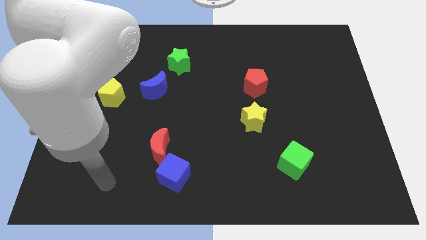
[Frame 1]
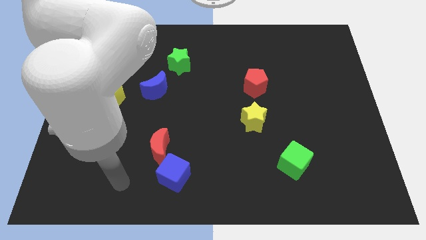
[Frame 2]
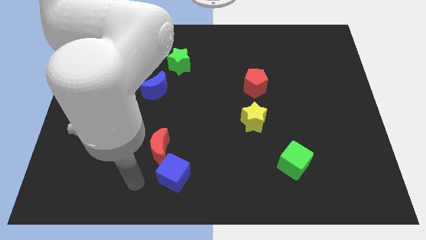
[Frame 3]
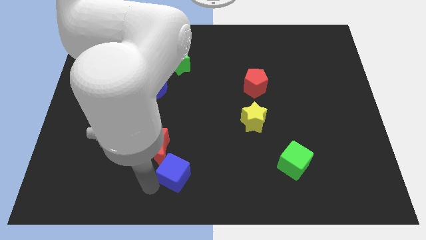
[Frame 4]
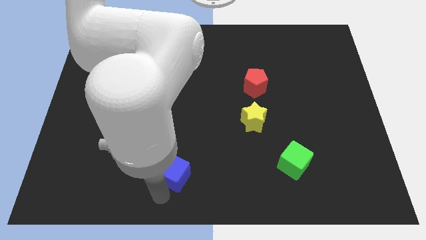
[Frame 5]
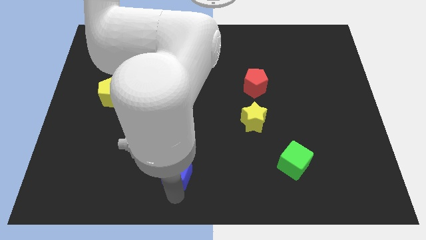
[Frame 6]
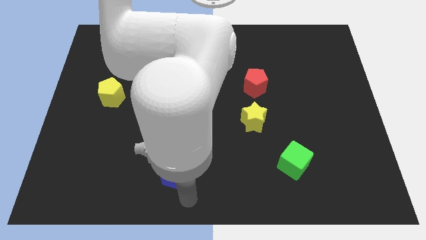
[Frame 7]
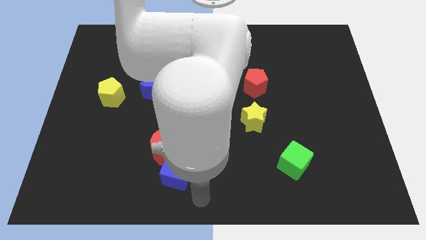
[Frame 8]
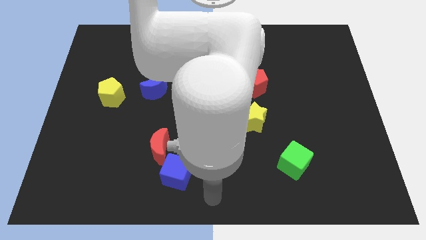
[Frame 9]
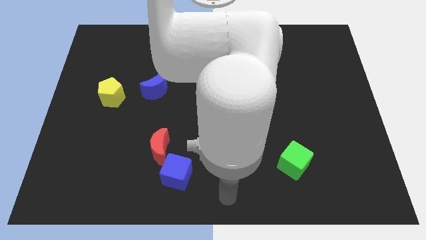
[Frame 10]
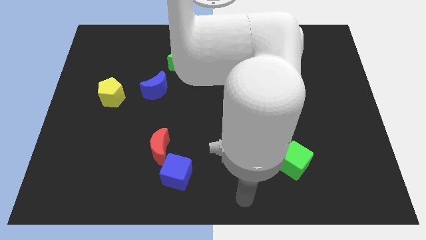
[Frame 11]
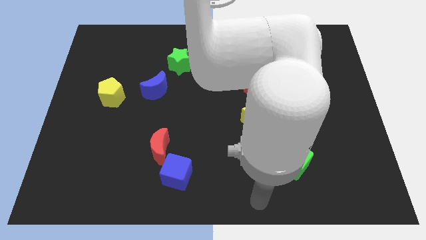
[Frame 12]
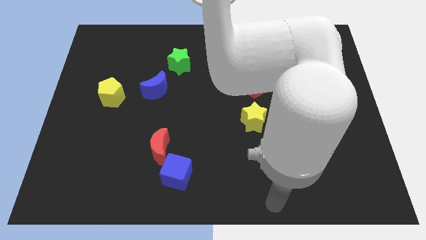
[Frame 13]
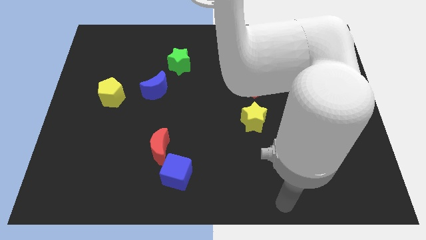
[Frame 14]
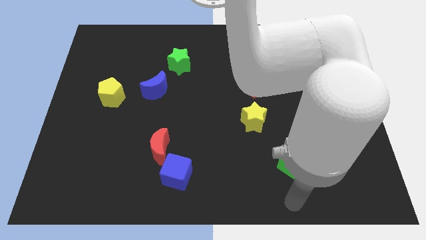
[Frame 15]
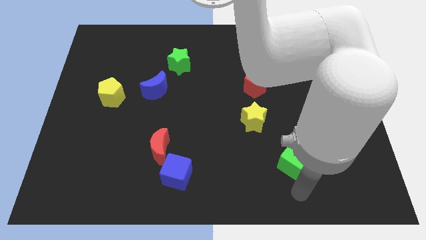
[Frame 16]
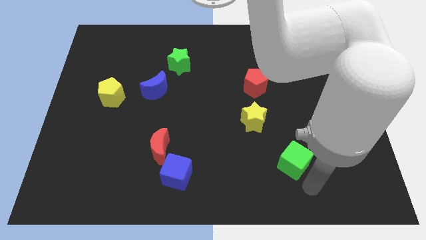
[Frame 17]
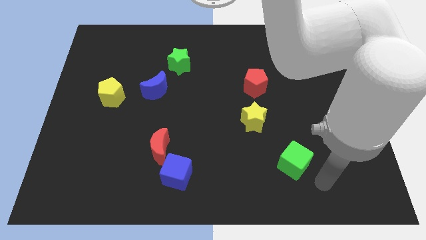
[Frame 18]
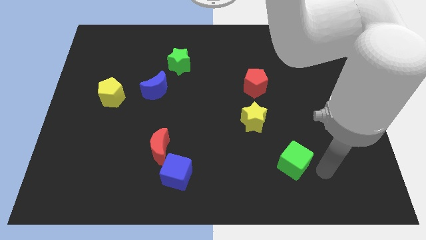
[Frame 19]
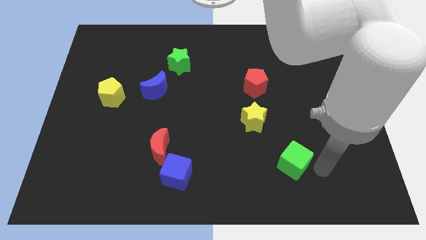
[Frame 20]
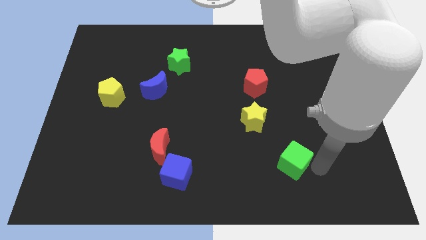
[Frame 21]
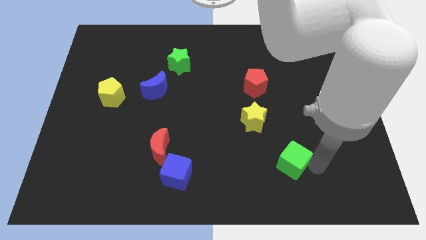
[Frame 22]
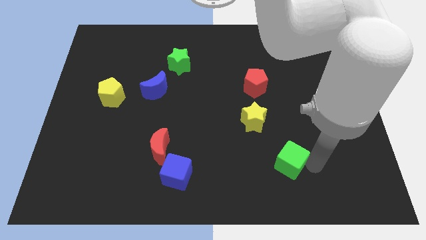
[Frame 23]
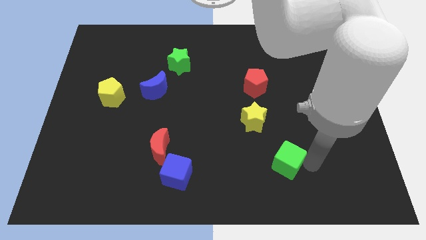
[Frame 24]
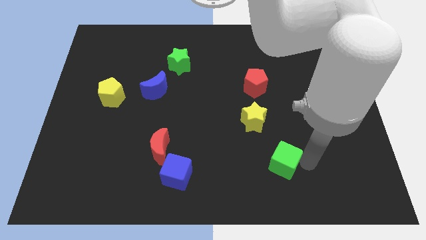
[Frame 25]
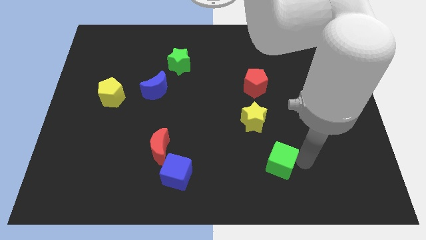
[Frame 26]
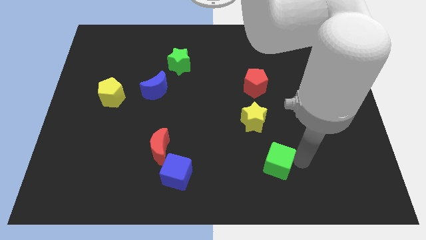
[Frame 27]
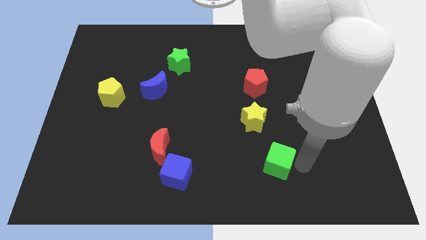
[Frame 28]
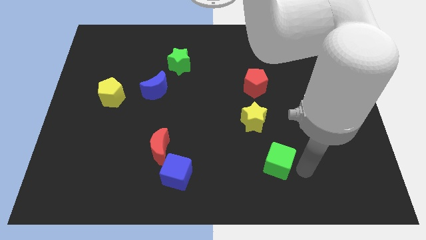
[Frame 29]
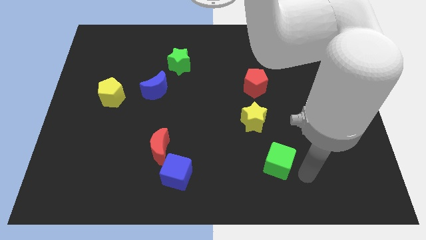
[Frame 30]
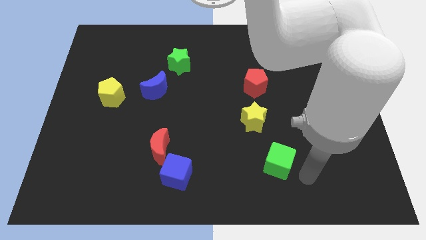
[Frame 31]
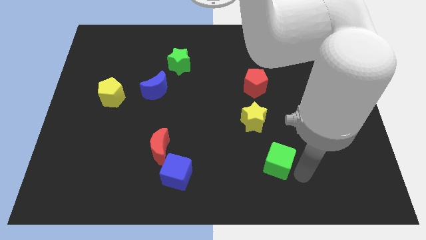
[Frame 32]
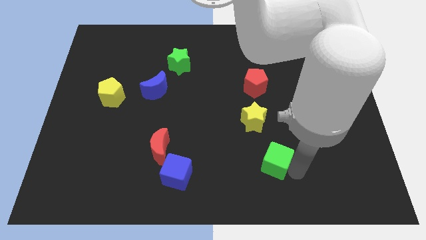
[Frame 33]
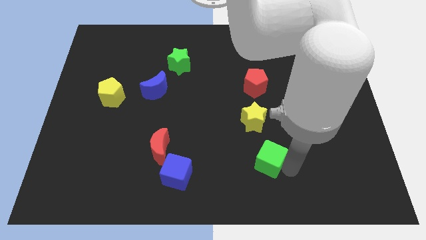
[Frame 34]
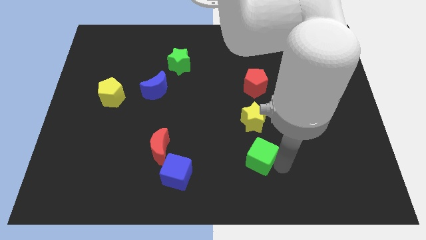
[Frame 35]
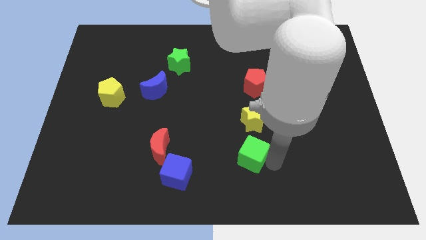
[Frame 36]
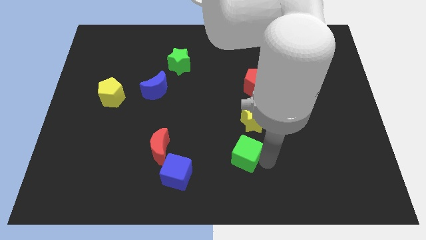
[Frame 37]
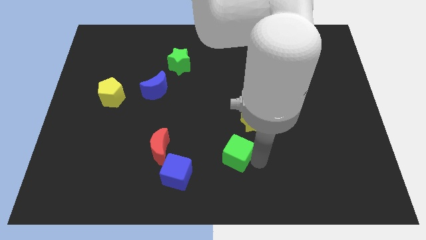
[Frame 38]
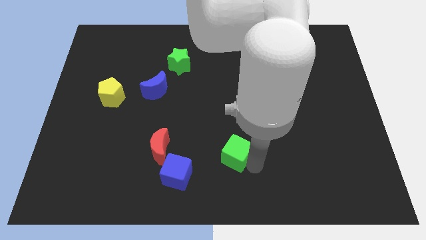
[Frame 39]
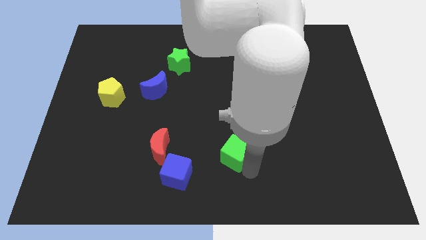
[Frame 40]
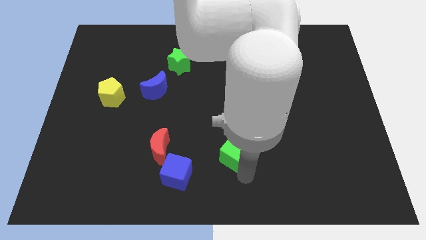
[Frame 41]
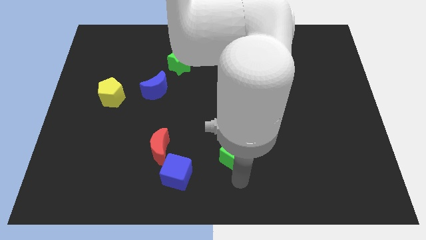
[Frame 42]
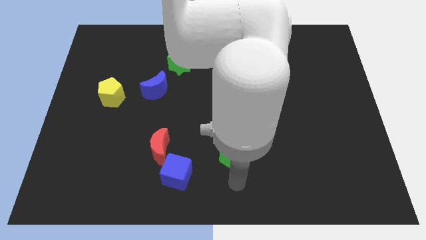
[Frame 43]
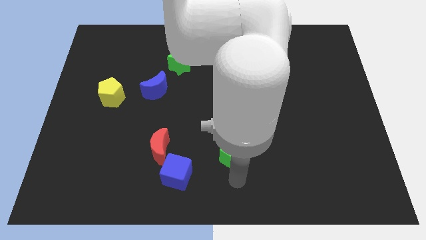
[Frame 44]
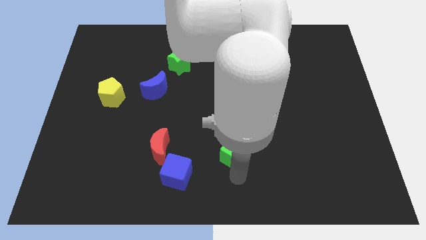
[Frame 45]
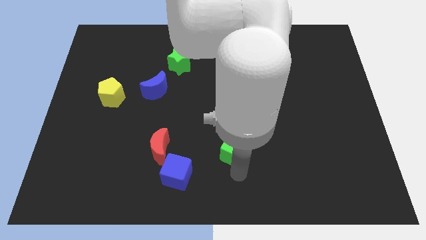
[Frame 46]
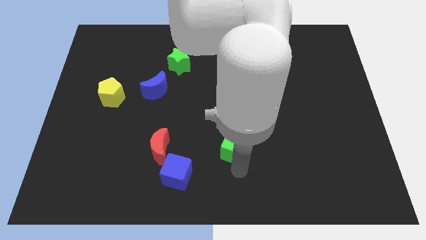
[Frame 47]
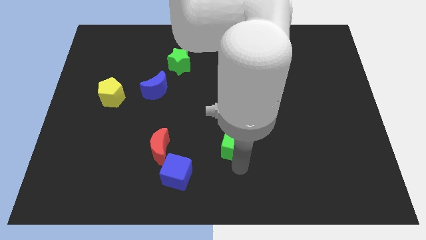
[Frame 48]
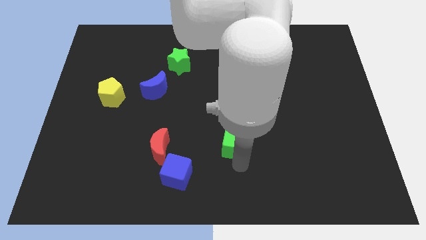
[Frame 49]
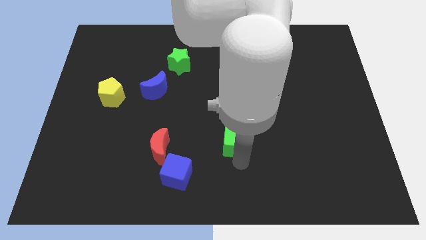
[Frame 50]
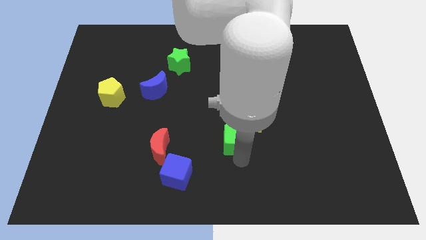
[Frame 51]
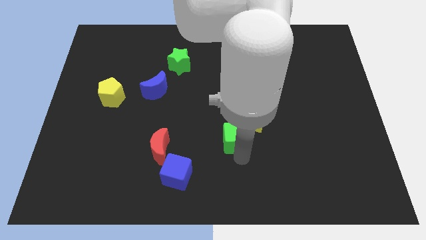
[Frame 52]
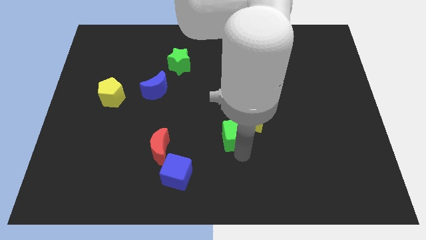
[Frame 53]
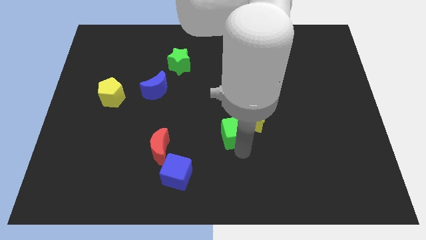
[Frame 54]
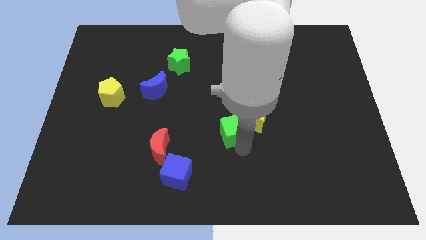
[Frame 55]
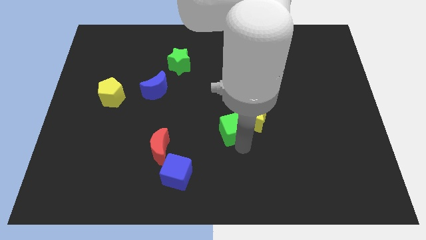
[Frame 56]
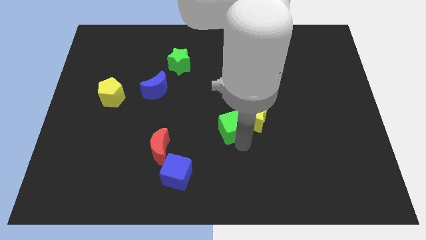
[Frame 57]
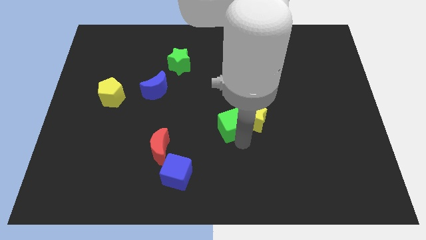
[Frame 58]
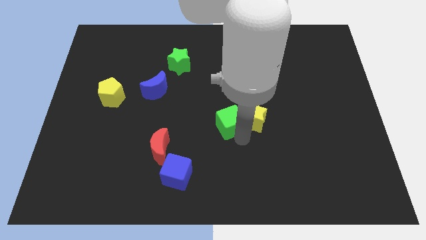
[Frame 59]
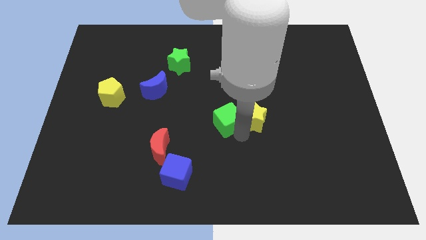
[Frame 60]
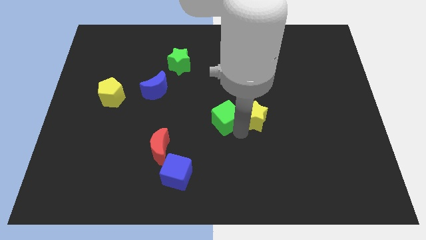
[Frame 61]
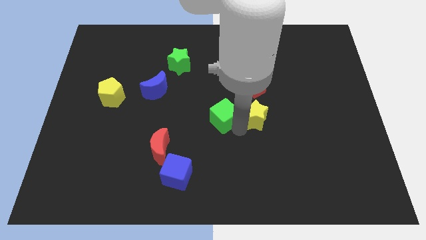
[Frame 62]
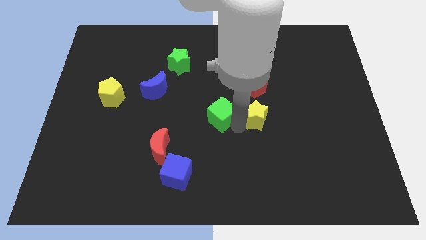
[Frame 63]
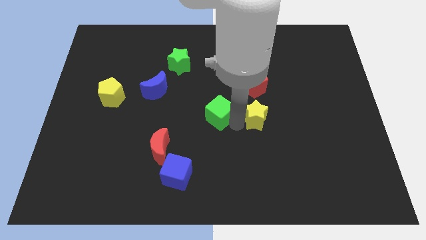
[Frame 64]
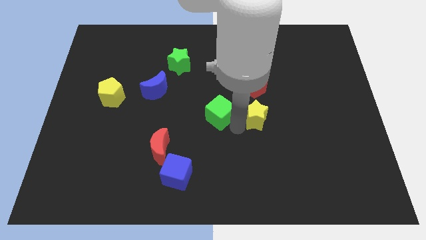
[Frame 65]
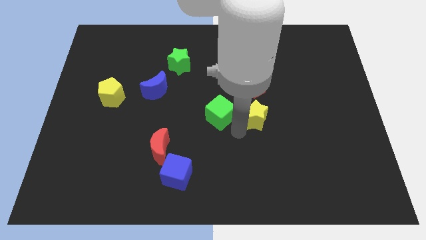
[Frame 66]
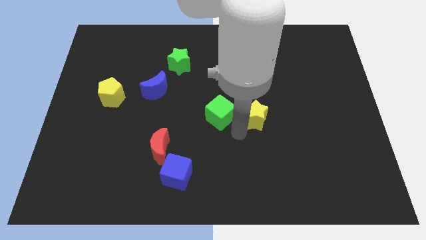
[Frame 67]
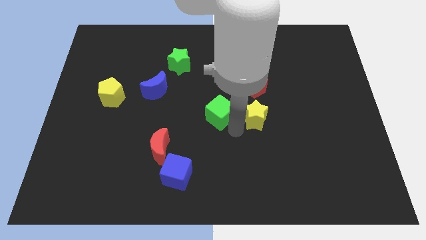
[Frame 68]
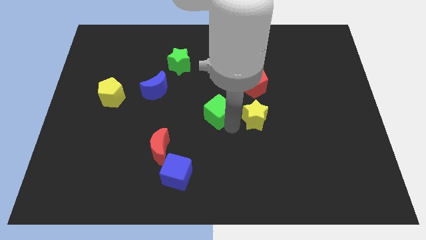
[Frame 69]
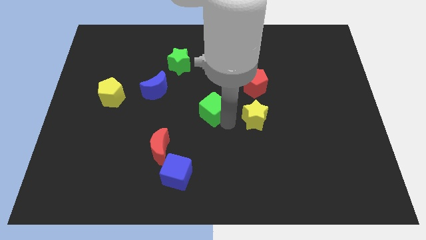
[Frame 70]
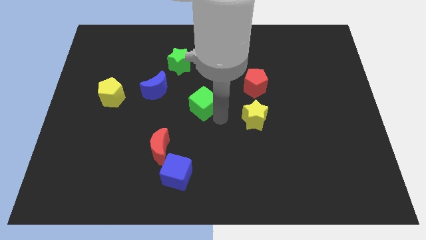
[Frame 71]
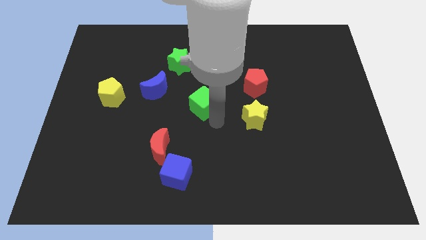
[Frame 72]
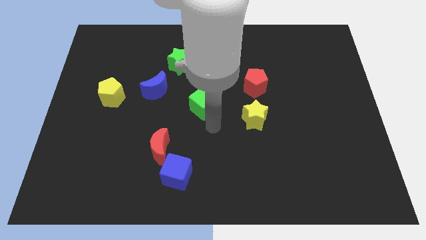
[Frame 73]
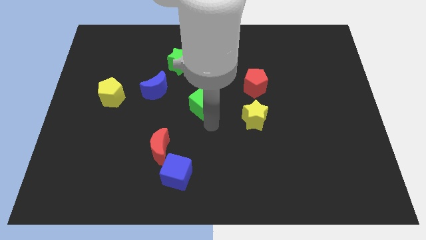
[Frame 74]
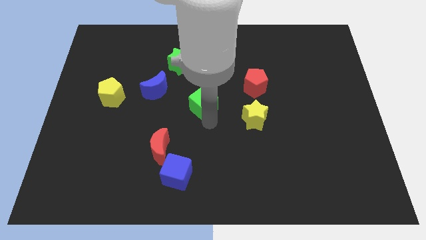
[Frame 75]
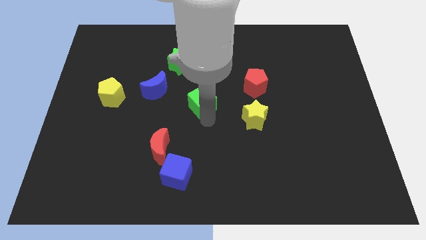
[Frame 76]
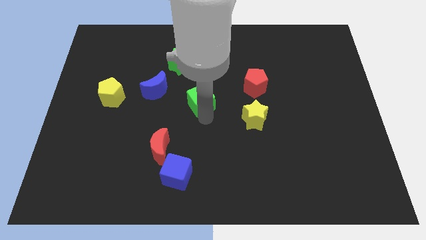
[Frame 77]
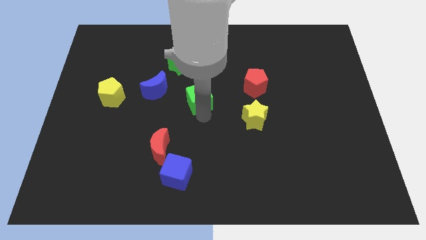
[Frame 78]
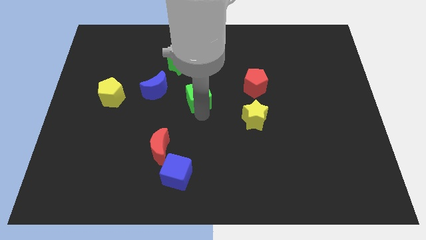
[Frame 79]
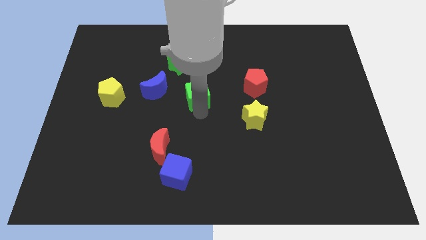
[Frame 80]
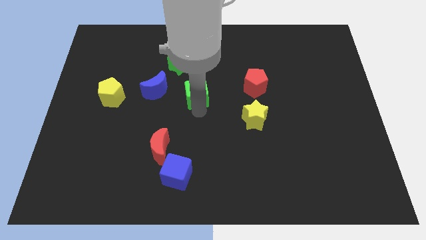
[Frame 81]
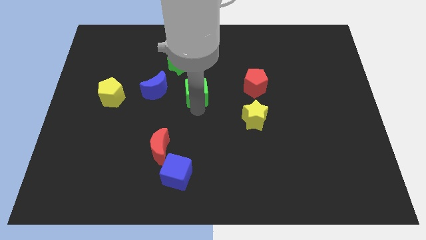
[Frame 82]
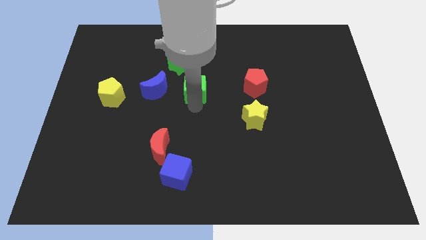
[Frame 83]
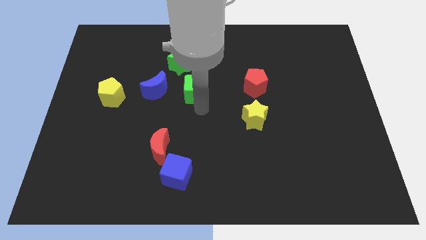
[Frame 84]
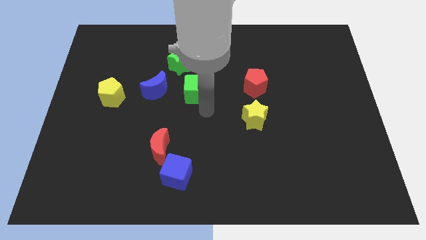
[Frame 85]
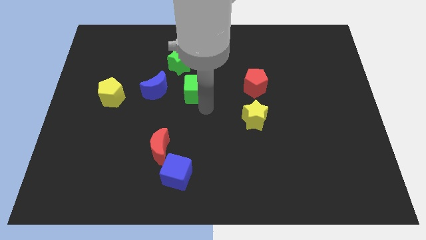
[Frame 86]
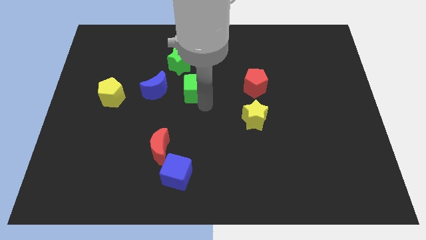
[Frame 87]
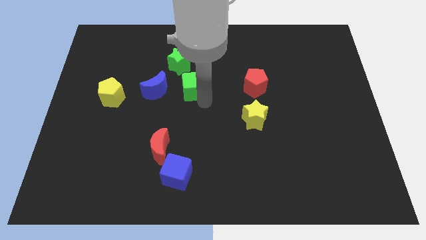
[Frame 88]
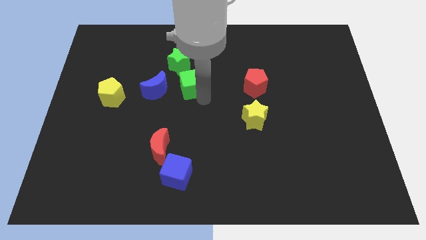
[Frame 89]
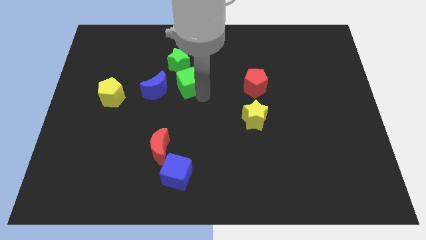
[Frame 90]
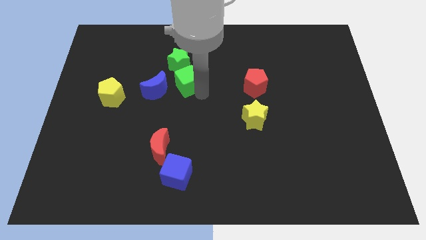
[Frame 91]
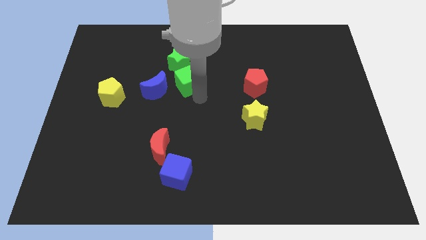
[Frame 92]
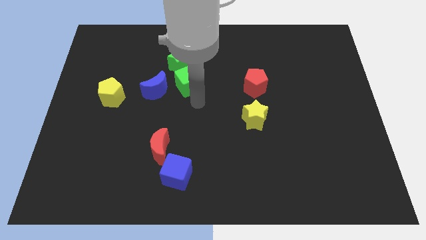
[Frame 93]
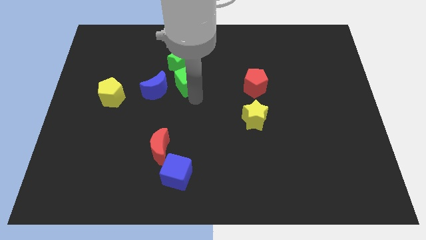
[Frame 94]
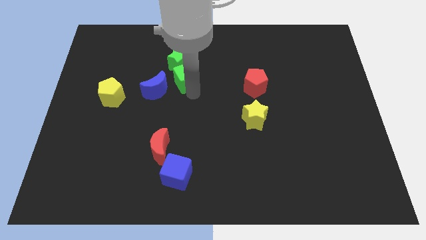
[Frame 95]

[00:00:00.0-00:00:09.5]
slide the green cube next to the green star
